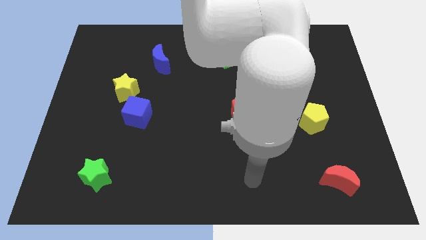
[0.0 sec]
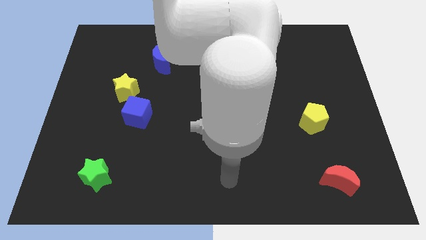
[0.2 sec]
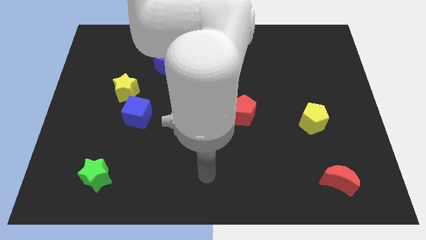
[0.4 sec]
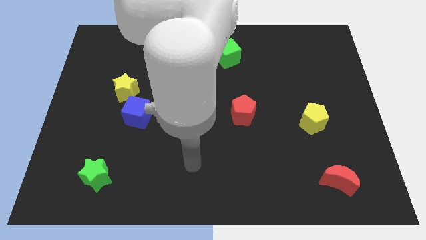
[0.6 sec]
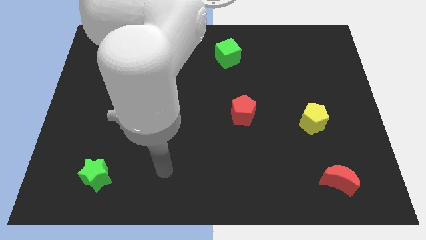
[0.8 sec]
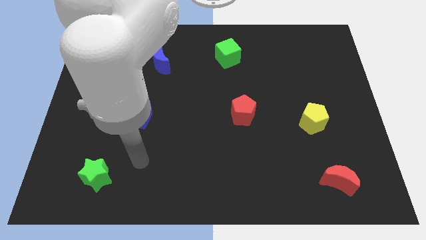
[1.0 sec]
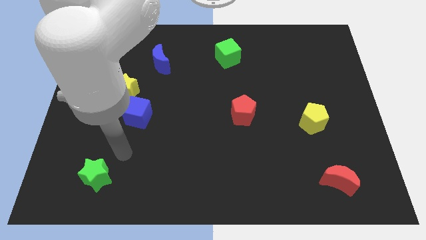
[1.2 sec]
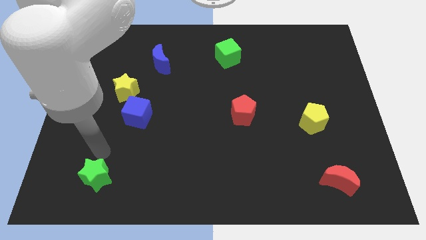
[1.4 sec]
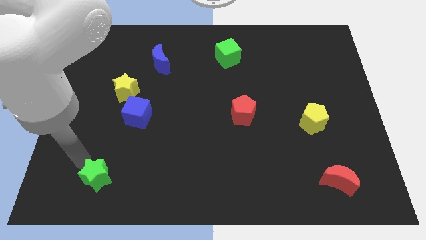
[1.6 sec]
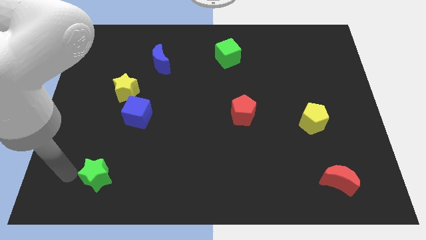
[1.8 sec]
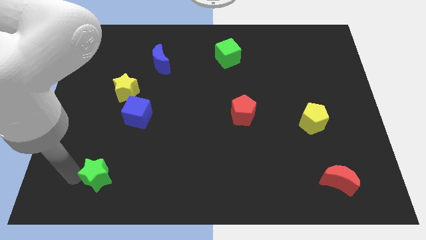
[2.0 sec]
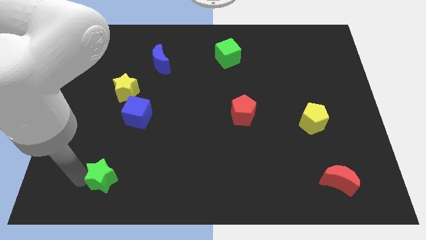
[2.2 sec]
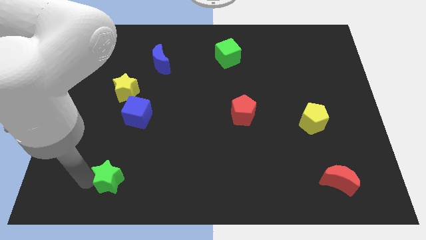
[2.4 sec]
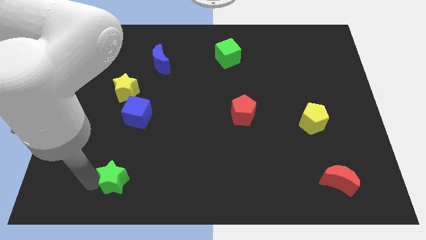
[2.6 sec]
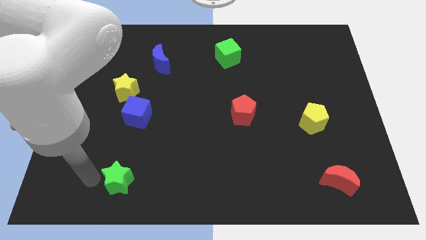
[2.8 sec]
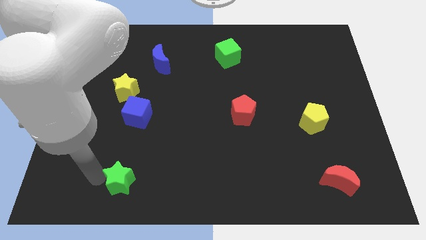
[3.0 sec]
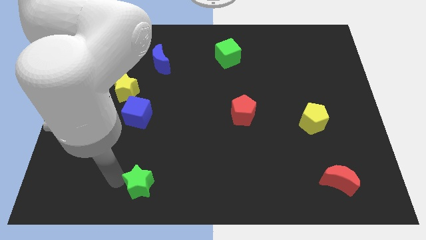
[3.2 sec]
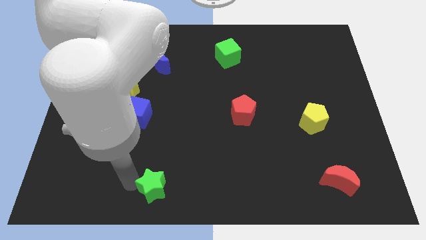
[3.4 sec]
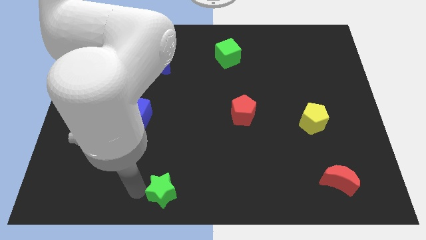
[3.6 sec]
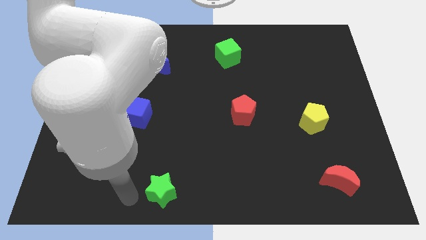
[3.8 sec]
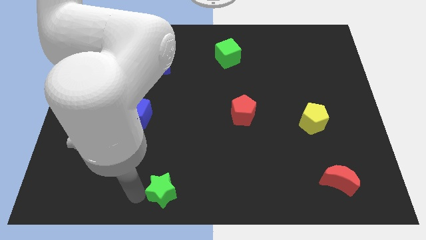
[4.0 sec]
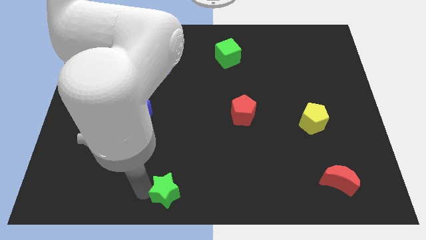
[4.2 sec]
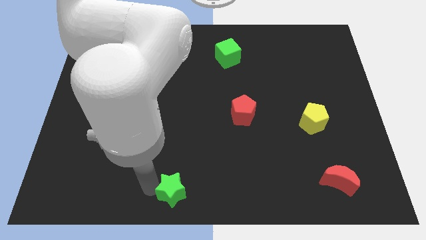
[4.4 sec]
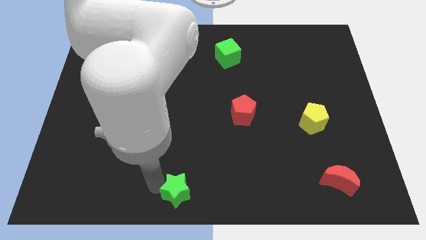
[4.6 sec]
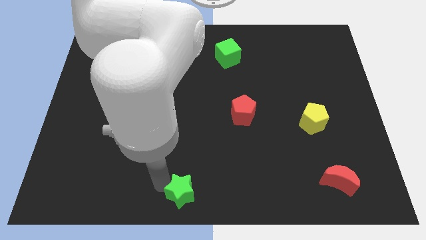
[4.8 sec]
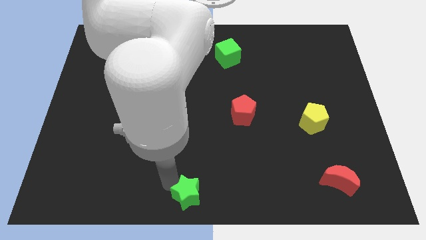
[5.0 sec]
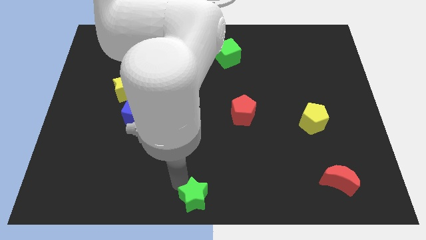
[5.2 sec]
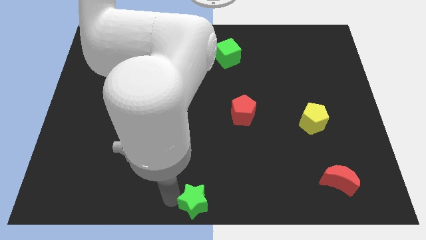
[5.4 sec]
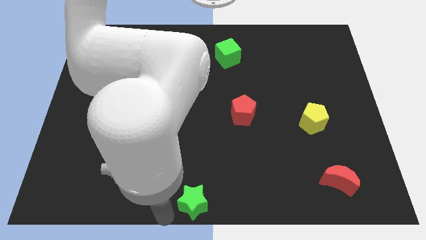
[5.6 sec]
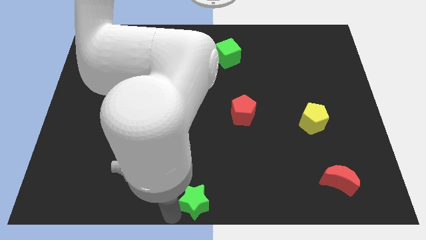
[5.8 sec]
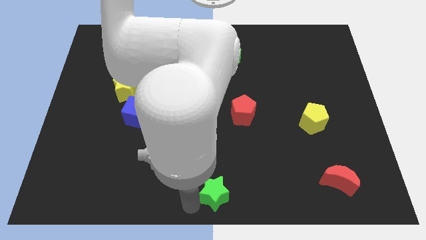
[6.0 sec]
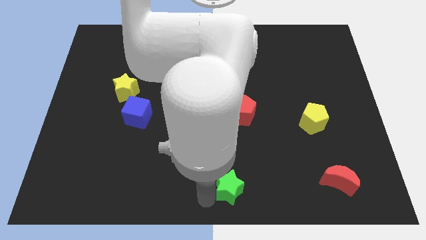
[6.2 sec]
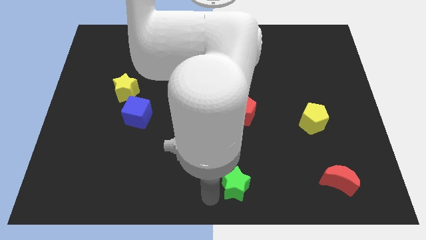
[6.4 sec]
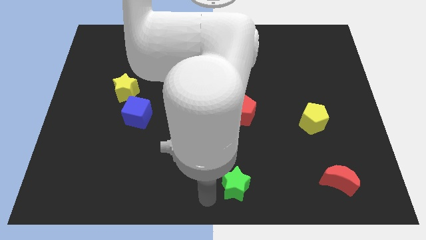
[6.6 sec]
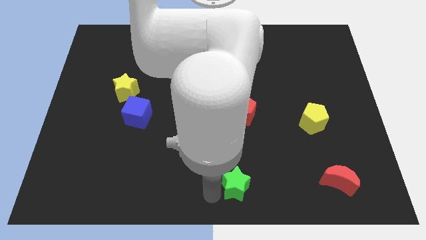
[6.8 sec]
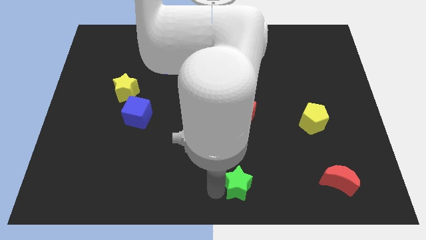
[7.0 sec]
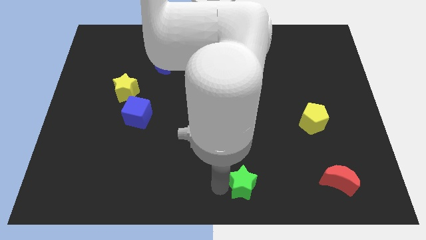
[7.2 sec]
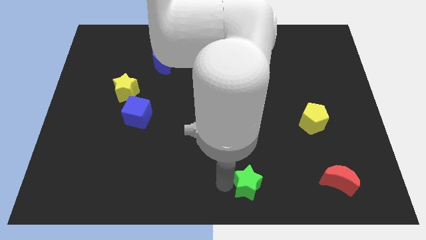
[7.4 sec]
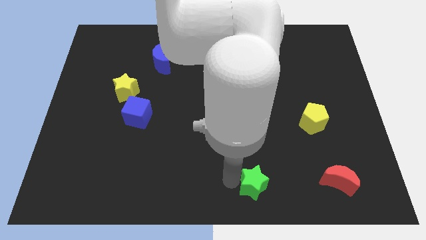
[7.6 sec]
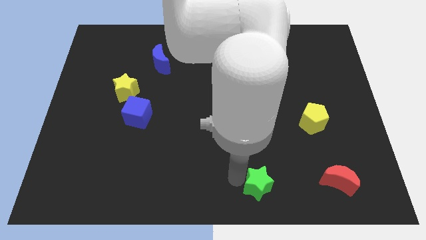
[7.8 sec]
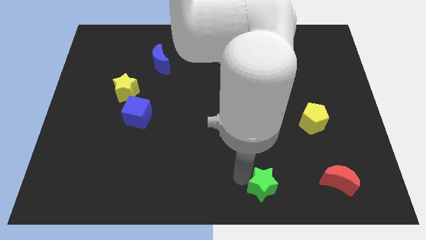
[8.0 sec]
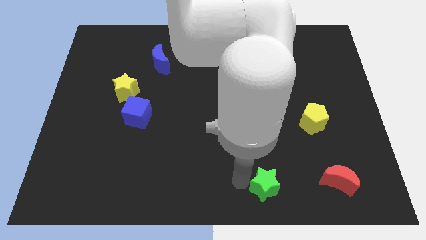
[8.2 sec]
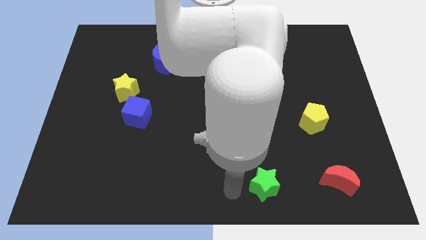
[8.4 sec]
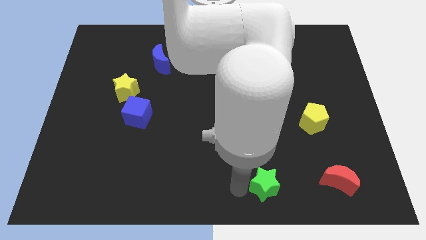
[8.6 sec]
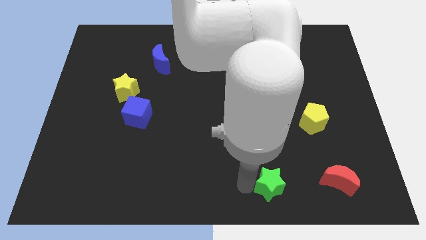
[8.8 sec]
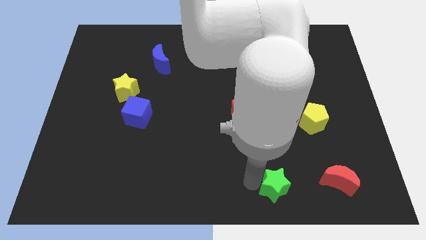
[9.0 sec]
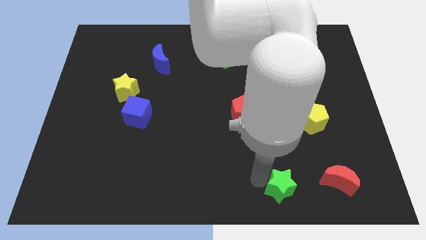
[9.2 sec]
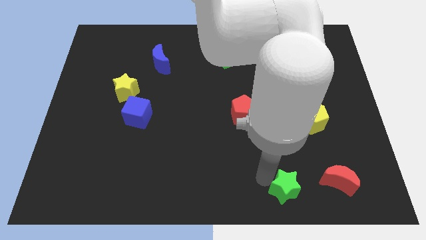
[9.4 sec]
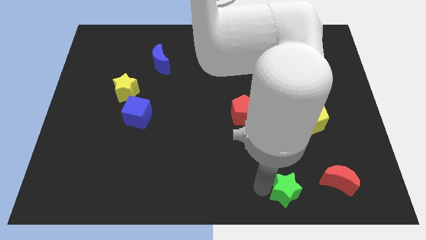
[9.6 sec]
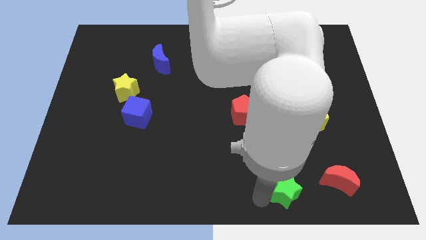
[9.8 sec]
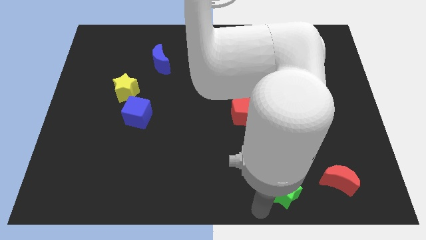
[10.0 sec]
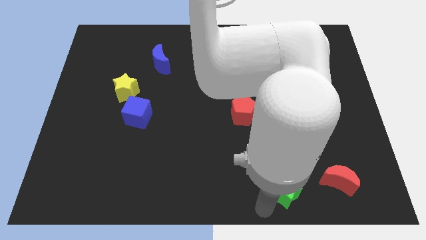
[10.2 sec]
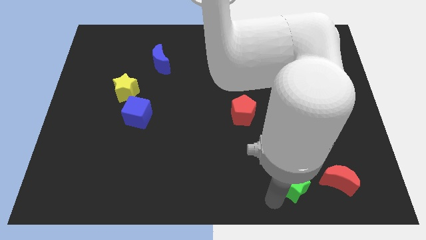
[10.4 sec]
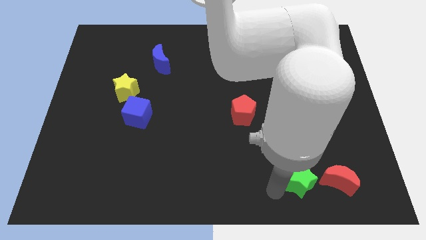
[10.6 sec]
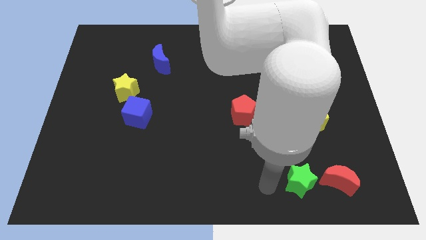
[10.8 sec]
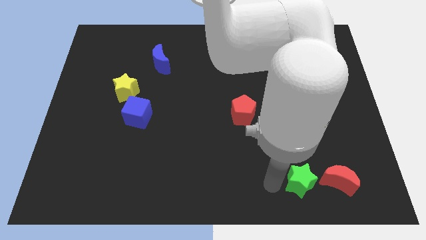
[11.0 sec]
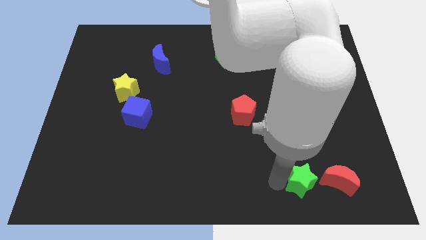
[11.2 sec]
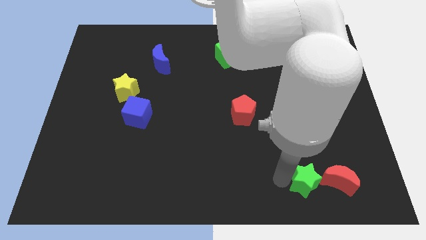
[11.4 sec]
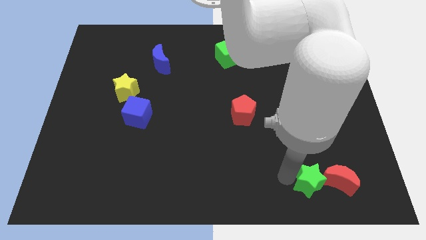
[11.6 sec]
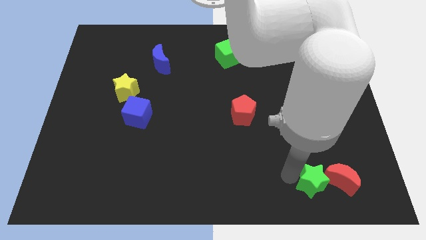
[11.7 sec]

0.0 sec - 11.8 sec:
put the green star close to the red moon

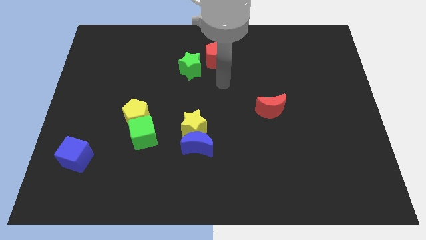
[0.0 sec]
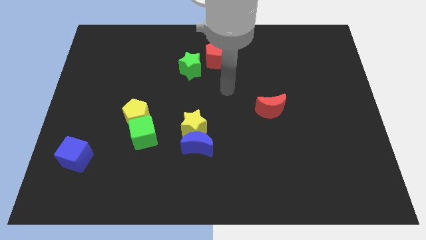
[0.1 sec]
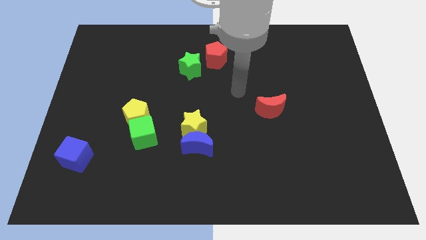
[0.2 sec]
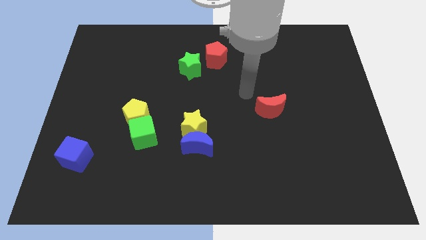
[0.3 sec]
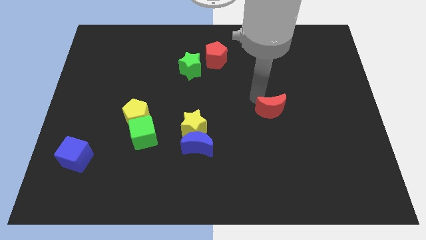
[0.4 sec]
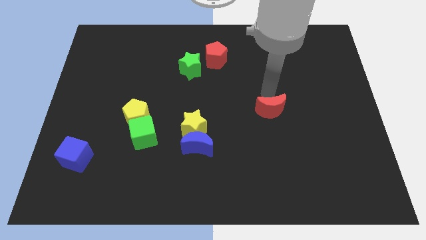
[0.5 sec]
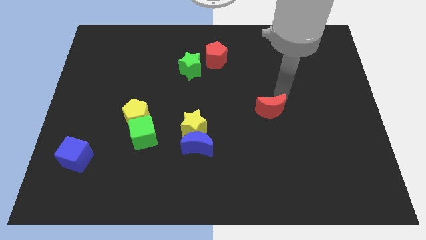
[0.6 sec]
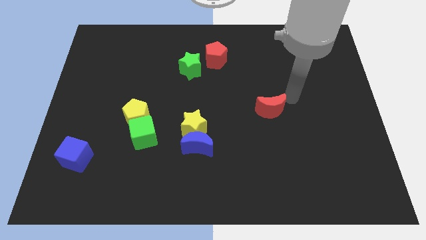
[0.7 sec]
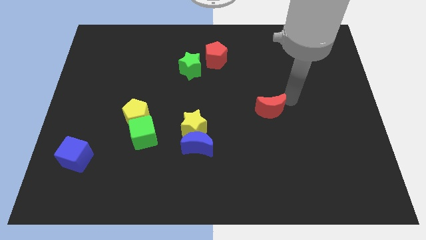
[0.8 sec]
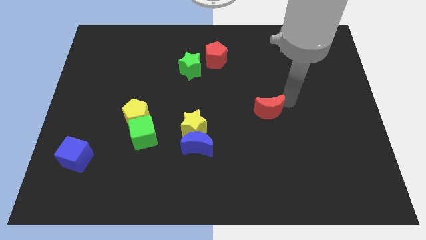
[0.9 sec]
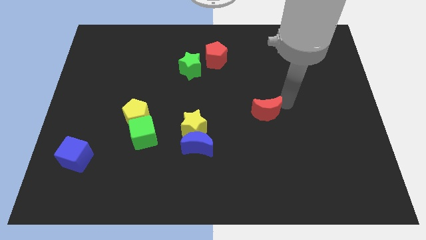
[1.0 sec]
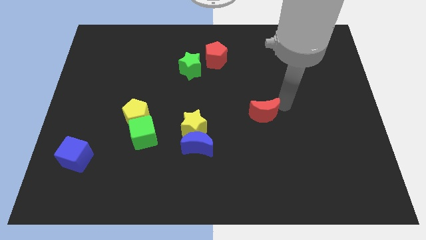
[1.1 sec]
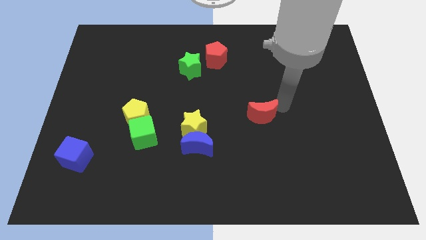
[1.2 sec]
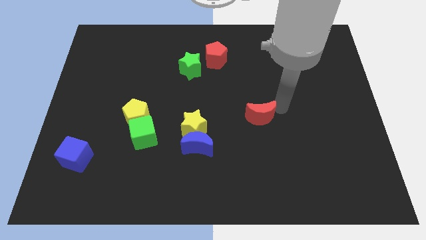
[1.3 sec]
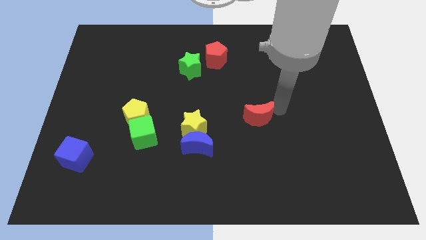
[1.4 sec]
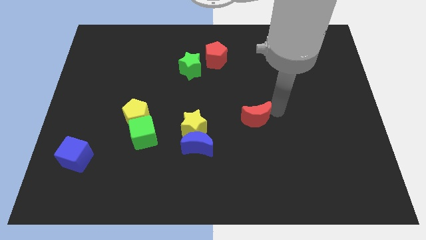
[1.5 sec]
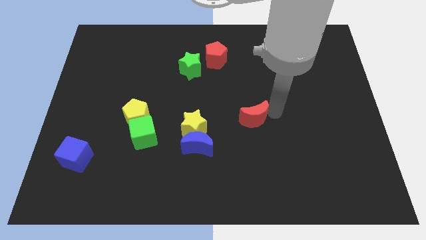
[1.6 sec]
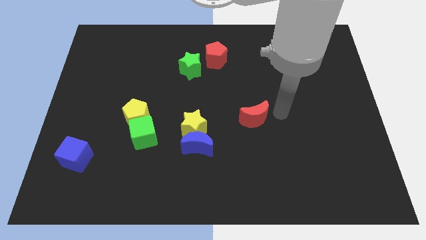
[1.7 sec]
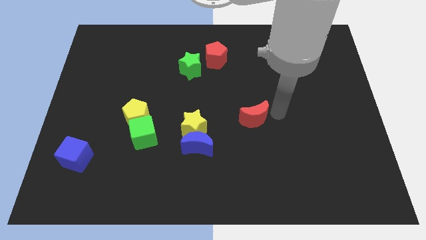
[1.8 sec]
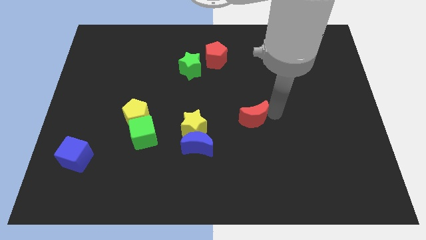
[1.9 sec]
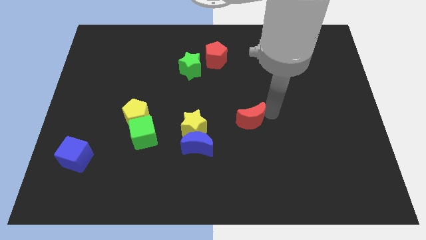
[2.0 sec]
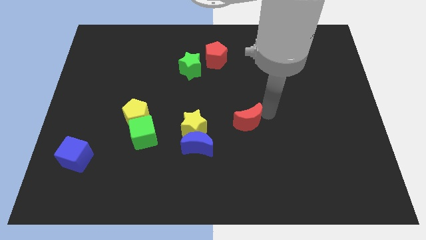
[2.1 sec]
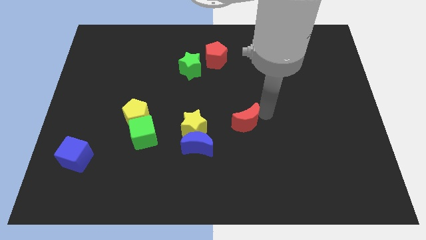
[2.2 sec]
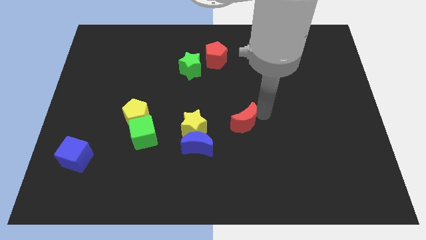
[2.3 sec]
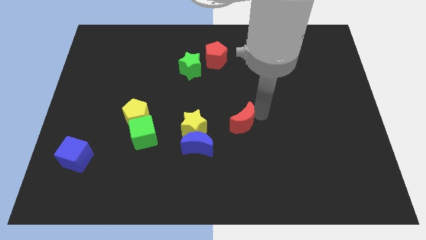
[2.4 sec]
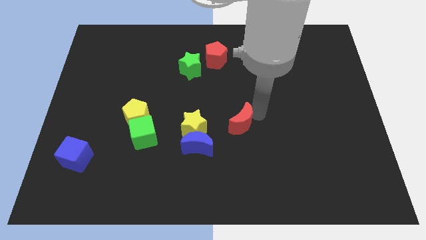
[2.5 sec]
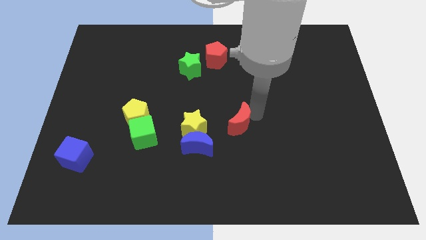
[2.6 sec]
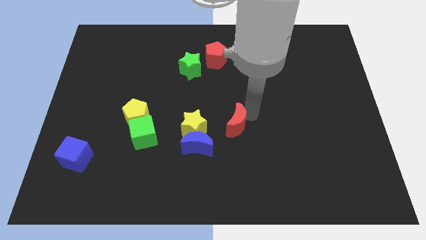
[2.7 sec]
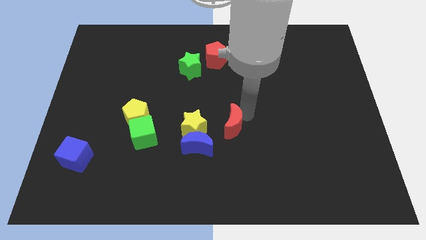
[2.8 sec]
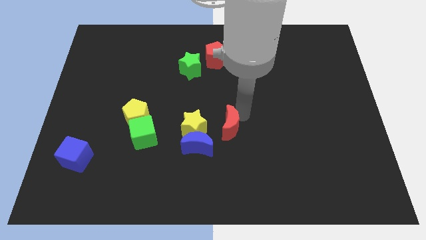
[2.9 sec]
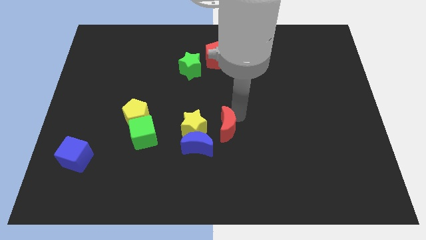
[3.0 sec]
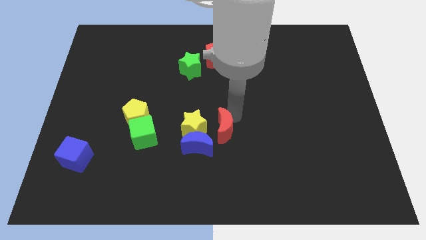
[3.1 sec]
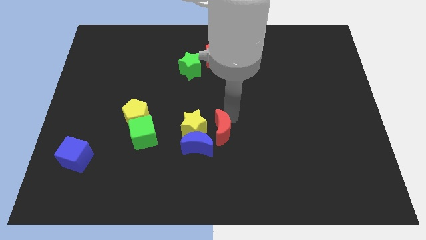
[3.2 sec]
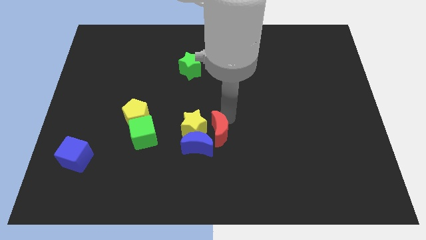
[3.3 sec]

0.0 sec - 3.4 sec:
slide the red moon next to the blue moon
